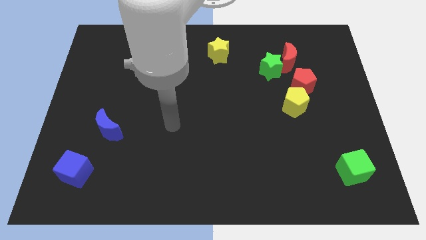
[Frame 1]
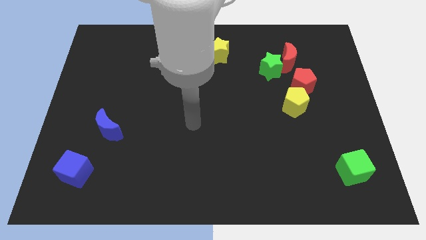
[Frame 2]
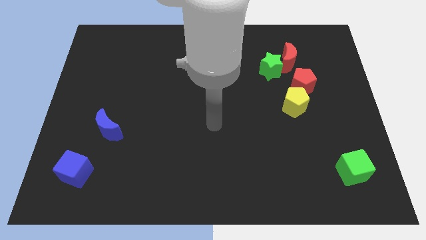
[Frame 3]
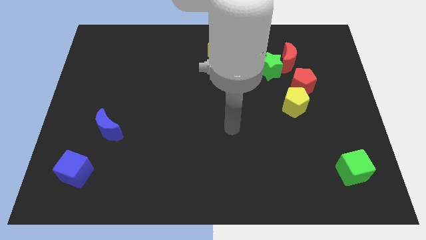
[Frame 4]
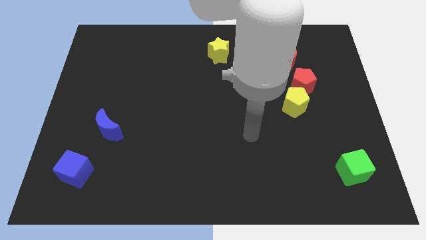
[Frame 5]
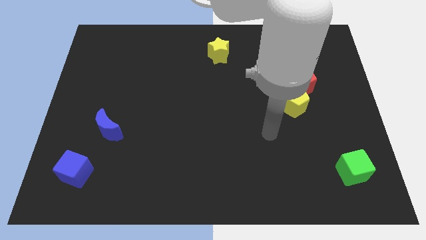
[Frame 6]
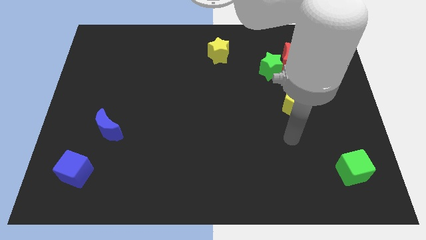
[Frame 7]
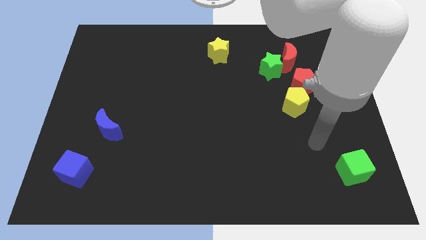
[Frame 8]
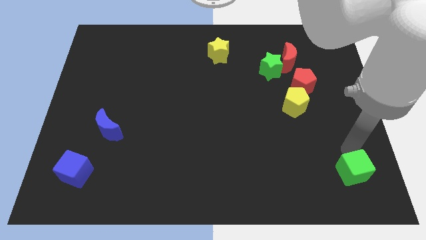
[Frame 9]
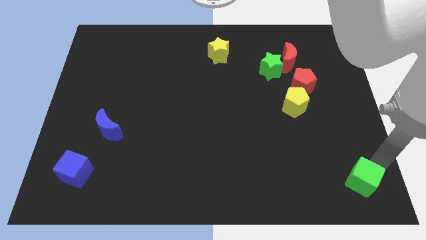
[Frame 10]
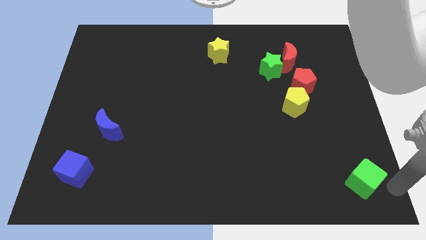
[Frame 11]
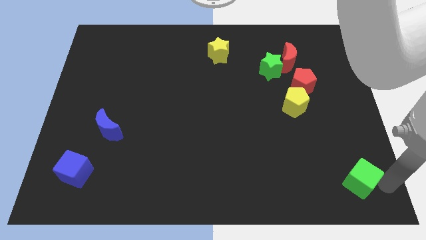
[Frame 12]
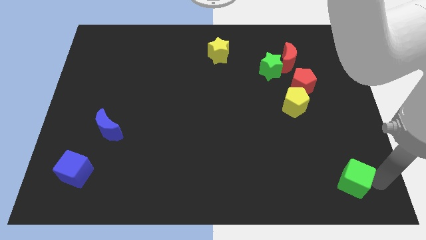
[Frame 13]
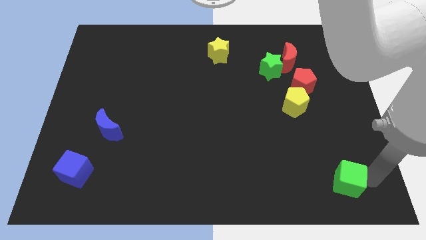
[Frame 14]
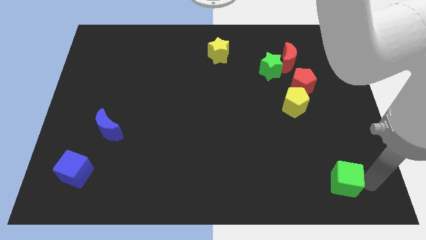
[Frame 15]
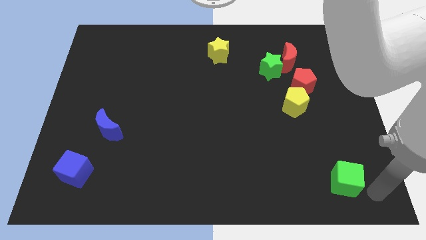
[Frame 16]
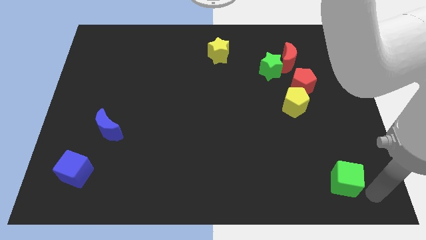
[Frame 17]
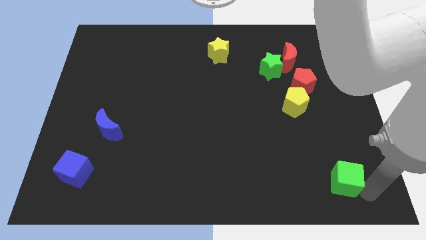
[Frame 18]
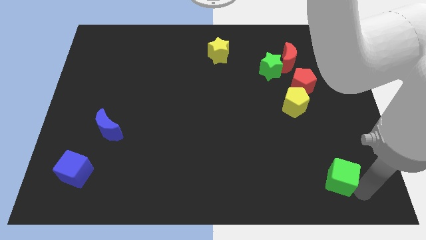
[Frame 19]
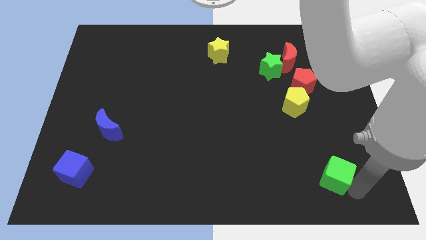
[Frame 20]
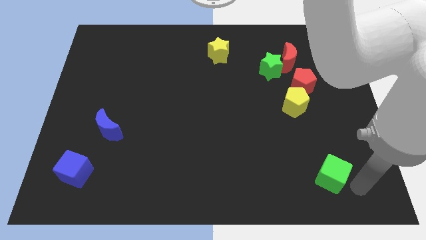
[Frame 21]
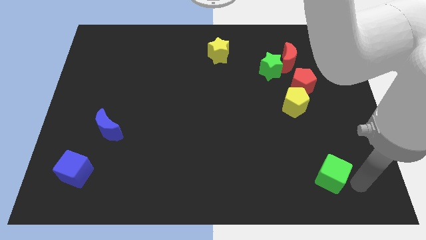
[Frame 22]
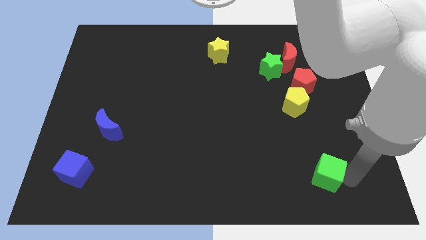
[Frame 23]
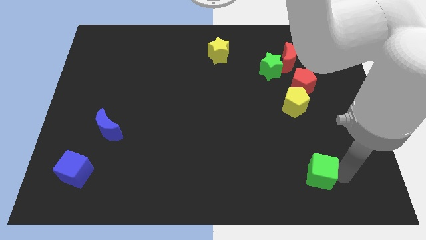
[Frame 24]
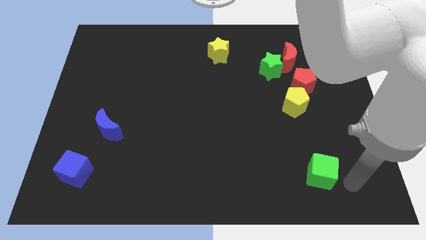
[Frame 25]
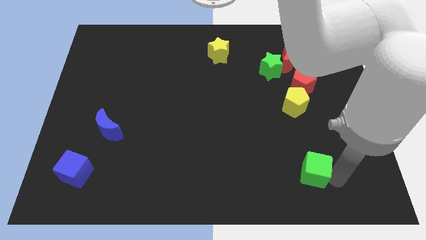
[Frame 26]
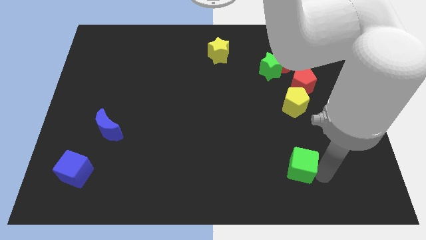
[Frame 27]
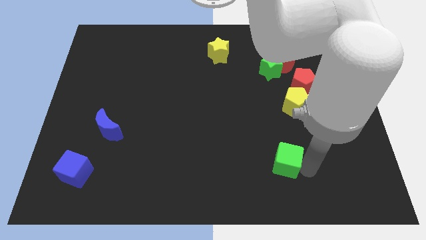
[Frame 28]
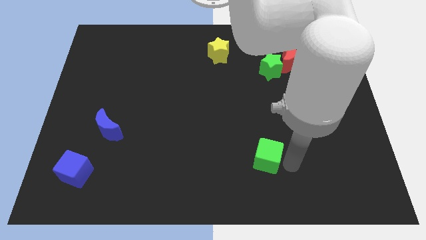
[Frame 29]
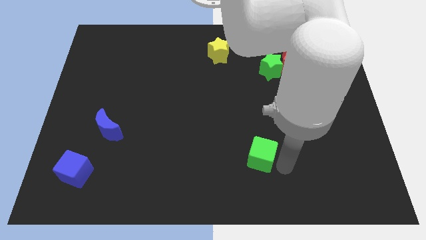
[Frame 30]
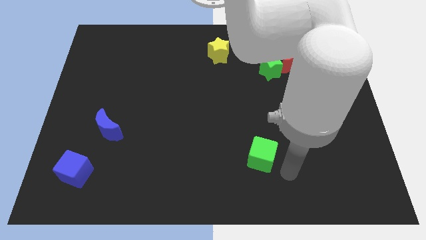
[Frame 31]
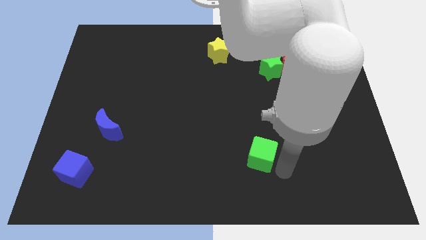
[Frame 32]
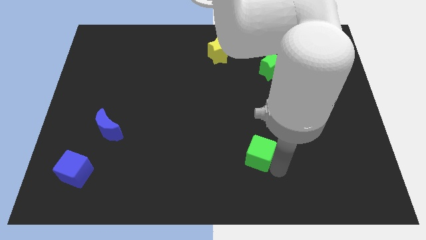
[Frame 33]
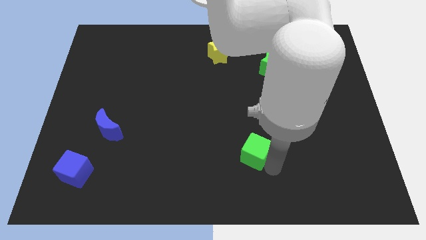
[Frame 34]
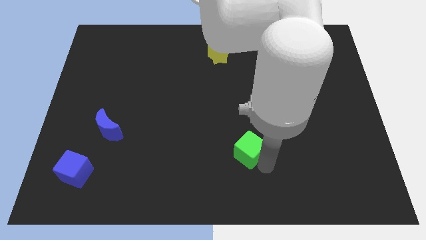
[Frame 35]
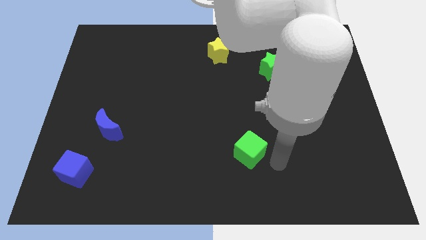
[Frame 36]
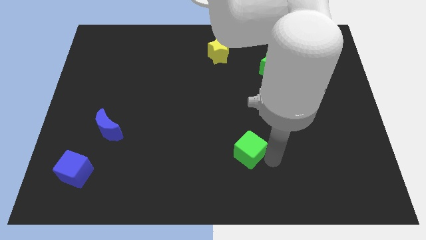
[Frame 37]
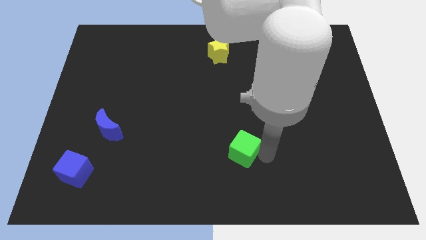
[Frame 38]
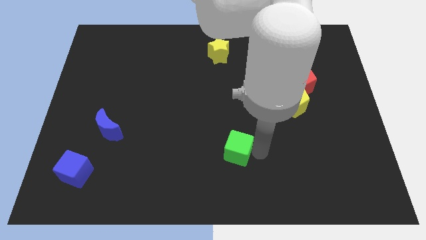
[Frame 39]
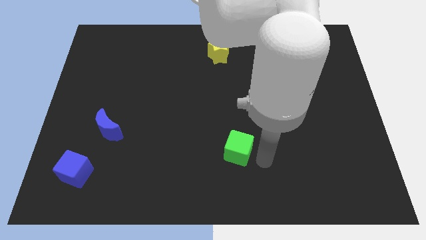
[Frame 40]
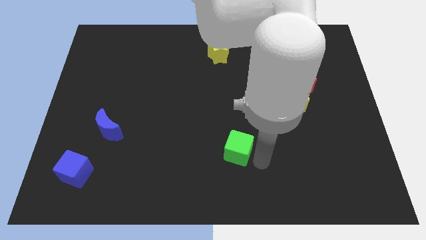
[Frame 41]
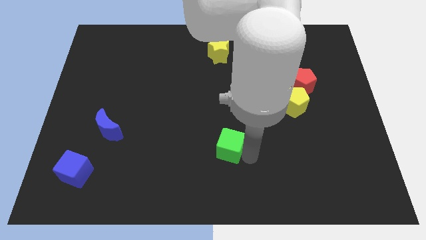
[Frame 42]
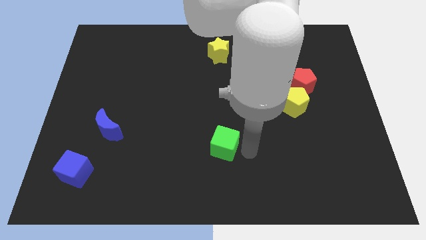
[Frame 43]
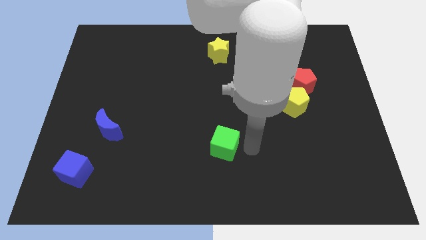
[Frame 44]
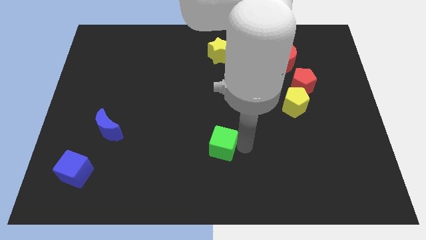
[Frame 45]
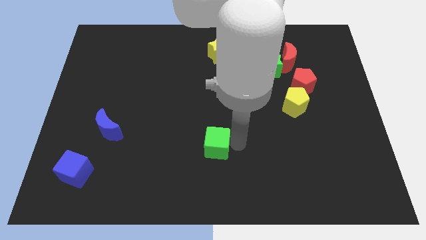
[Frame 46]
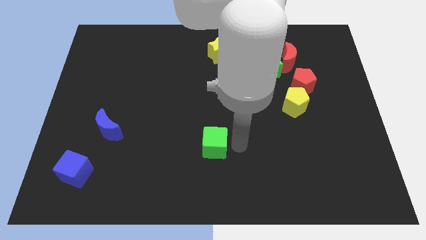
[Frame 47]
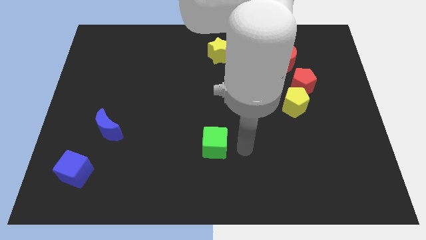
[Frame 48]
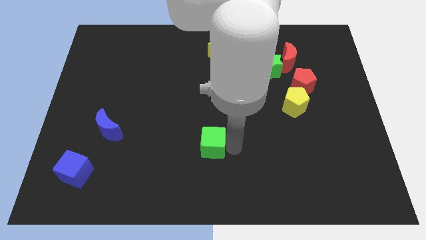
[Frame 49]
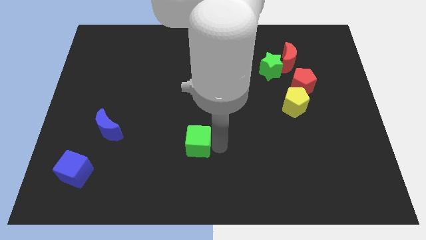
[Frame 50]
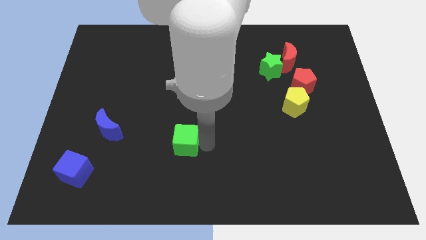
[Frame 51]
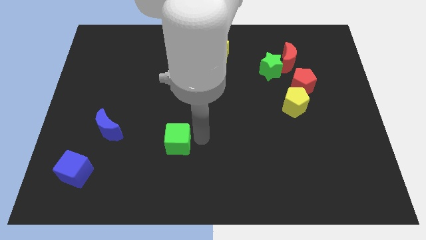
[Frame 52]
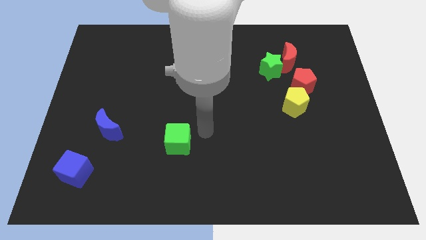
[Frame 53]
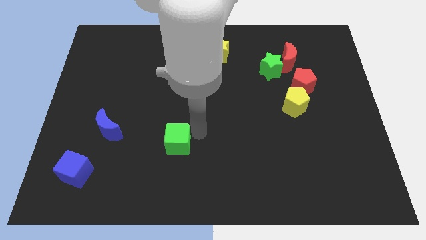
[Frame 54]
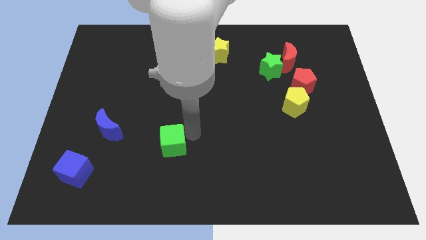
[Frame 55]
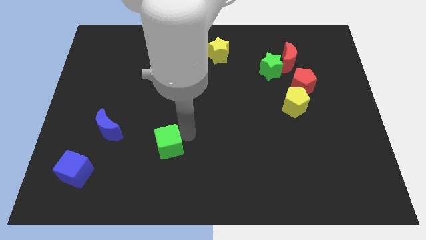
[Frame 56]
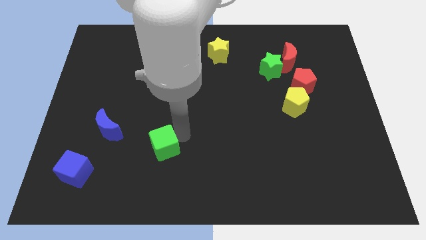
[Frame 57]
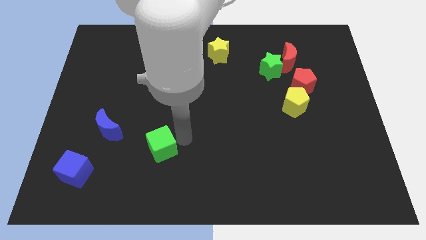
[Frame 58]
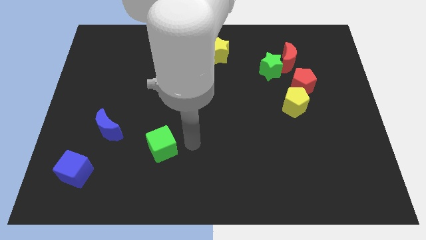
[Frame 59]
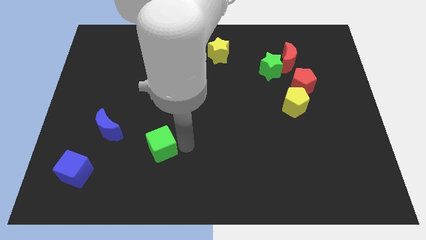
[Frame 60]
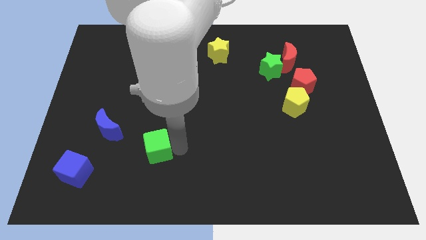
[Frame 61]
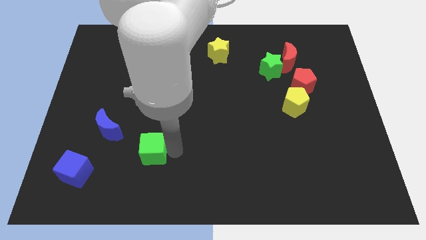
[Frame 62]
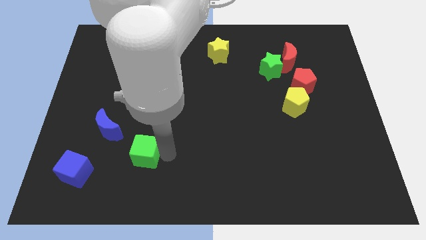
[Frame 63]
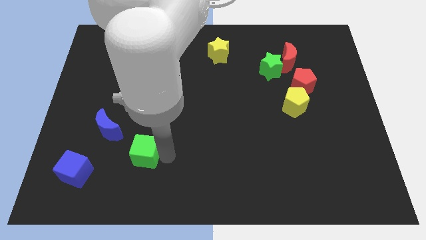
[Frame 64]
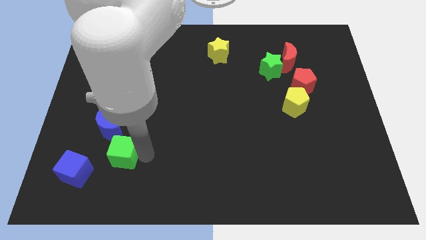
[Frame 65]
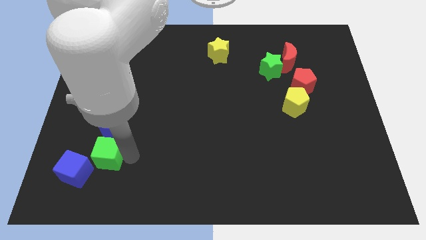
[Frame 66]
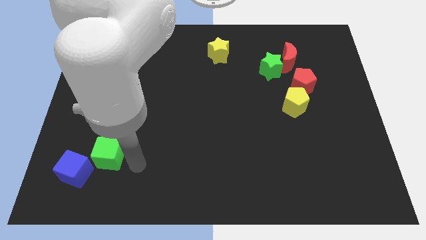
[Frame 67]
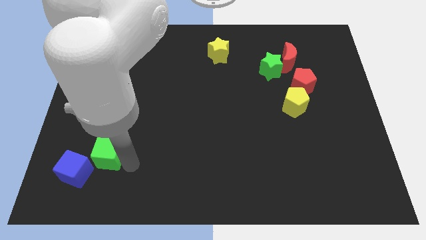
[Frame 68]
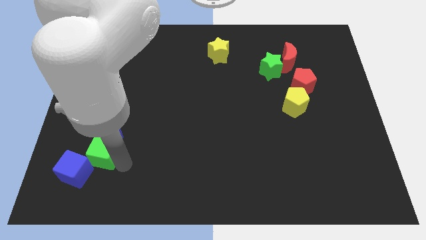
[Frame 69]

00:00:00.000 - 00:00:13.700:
put the green cube to the bottom left of the blue moon
